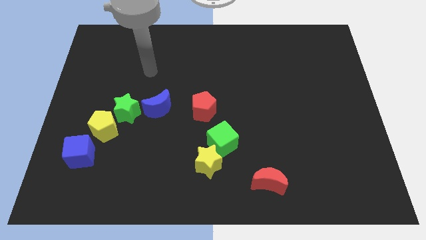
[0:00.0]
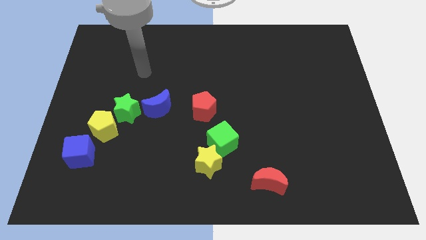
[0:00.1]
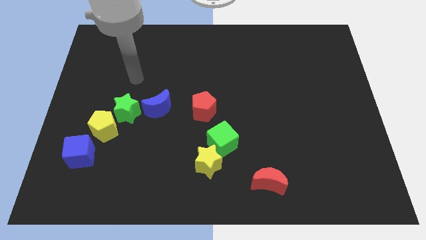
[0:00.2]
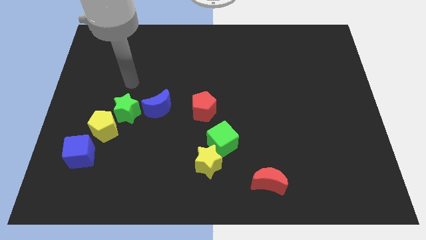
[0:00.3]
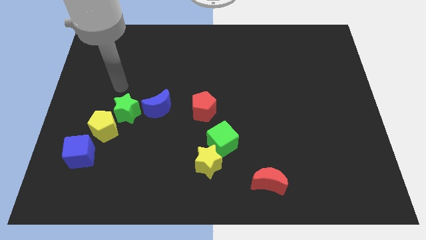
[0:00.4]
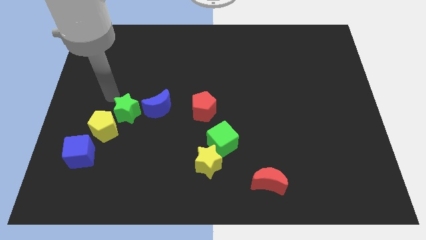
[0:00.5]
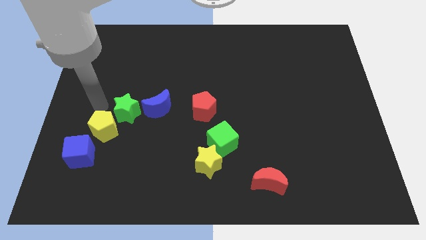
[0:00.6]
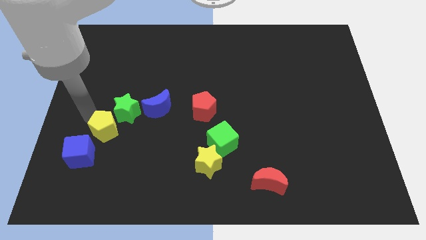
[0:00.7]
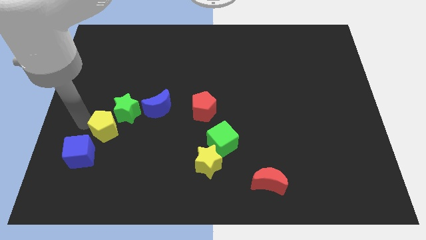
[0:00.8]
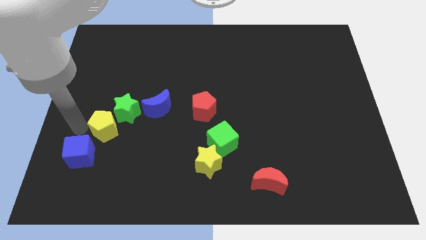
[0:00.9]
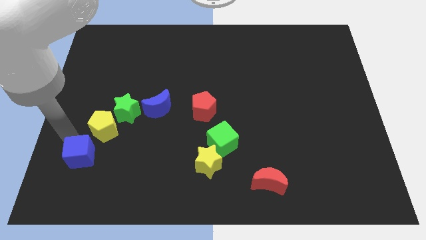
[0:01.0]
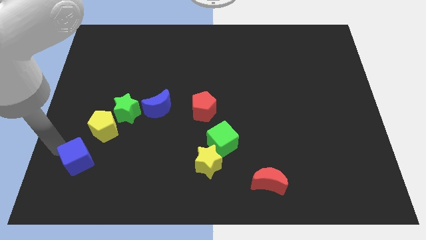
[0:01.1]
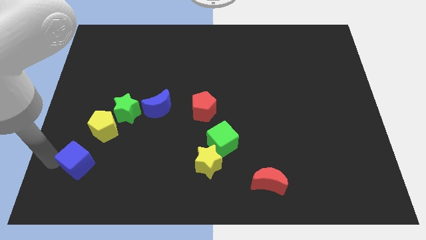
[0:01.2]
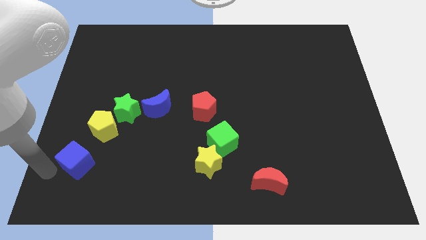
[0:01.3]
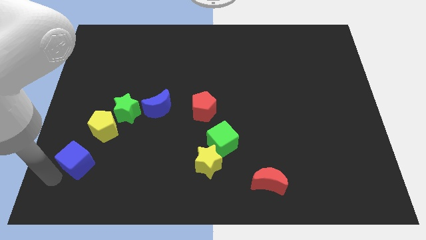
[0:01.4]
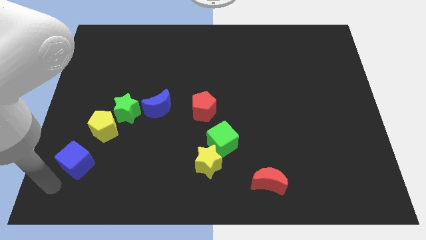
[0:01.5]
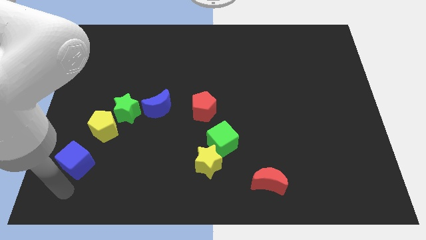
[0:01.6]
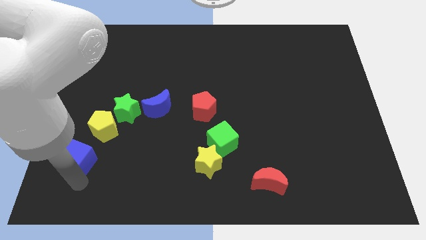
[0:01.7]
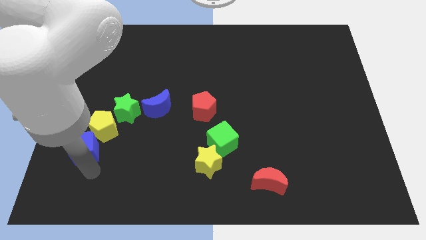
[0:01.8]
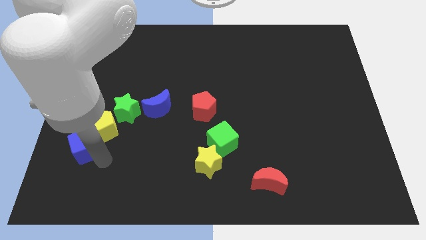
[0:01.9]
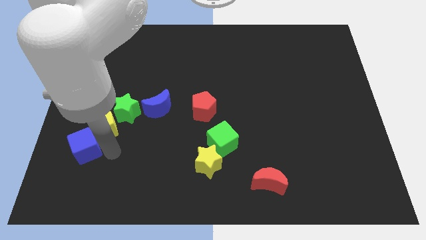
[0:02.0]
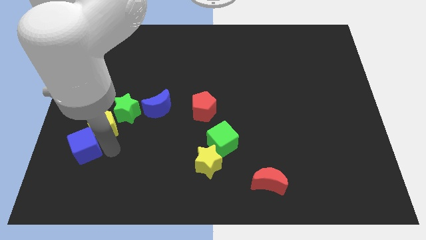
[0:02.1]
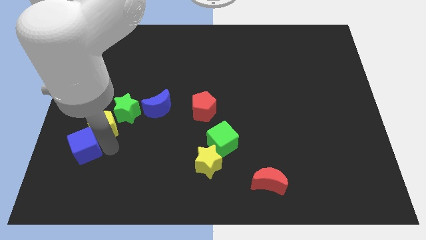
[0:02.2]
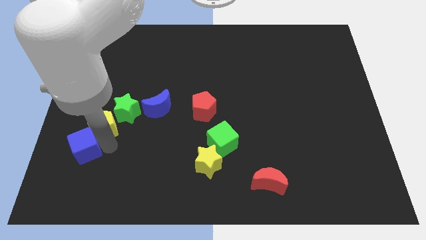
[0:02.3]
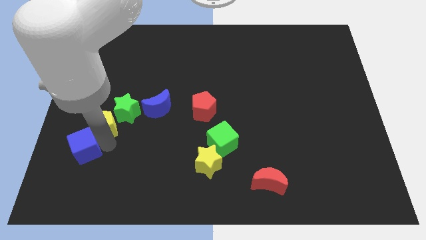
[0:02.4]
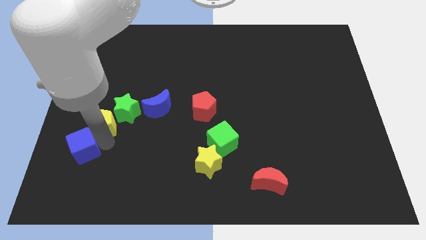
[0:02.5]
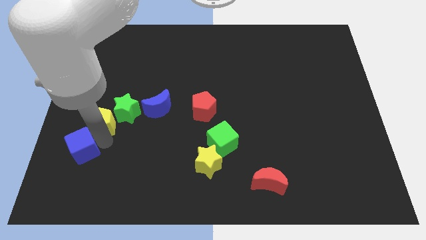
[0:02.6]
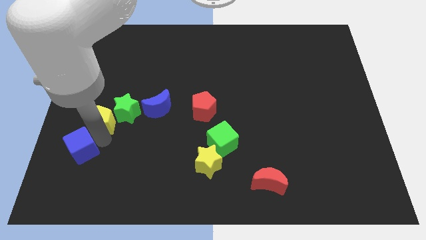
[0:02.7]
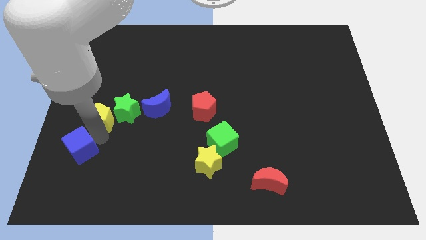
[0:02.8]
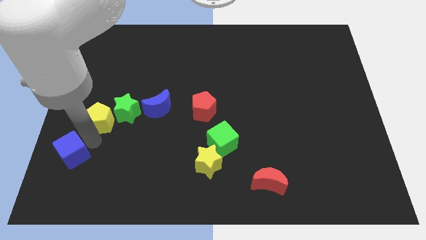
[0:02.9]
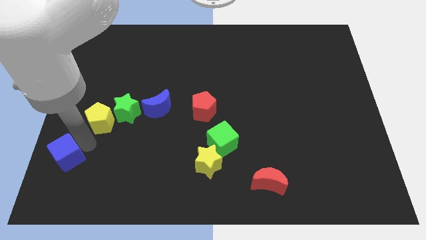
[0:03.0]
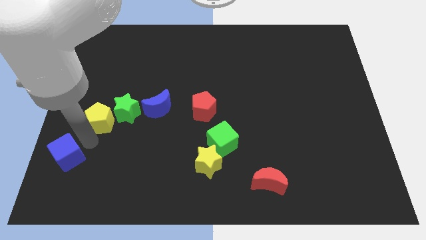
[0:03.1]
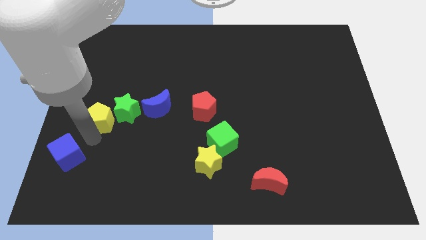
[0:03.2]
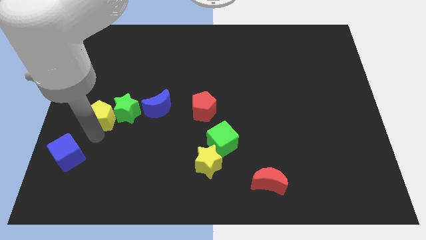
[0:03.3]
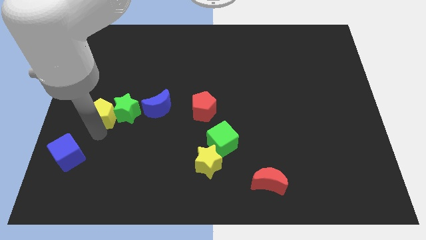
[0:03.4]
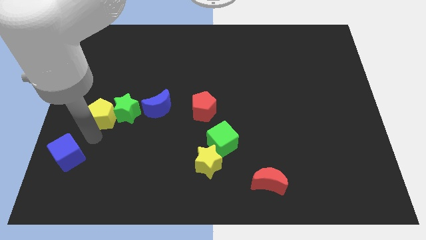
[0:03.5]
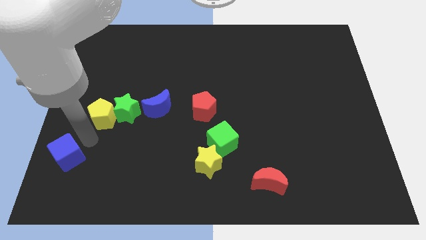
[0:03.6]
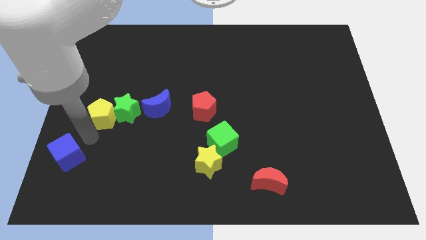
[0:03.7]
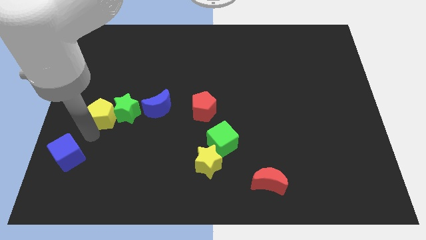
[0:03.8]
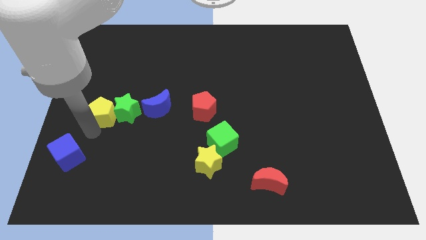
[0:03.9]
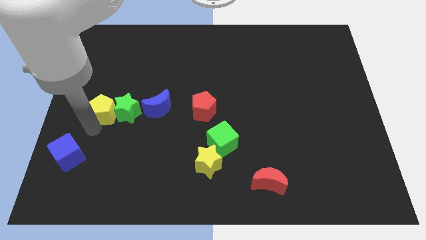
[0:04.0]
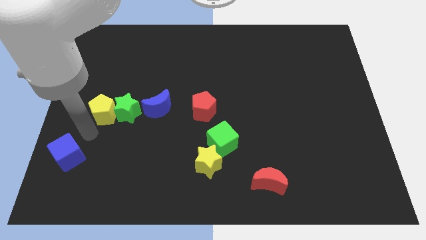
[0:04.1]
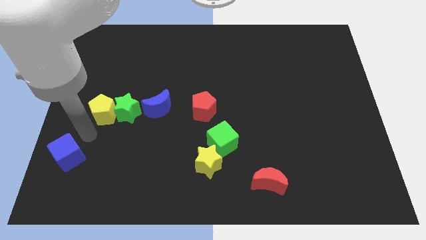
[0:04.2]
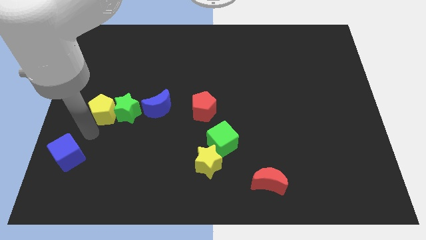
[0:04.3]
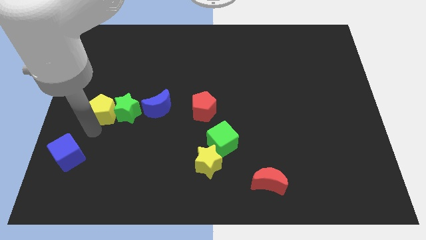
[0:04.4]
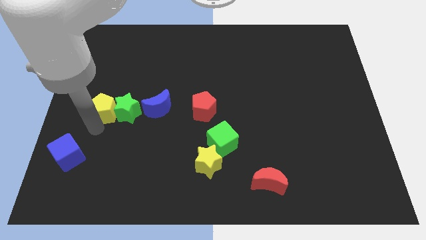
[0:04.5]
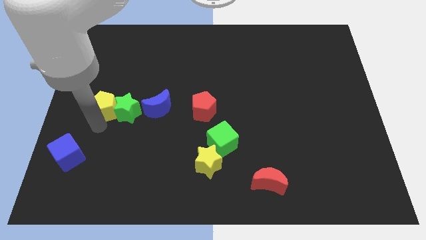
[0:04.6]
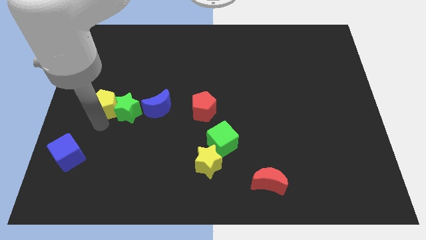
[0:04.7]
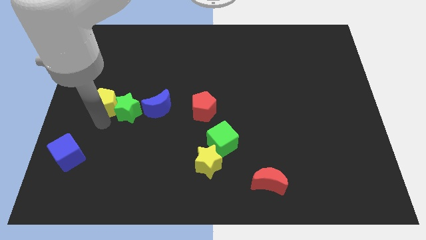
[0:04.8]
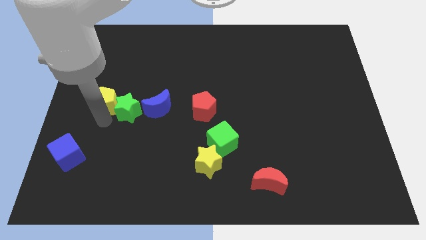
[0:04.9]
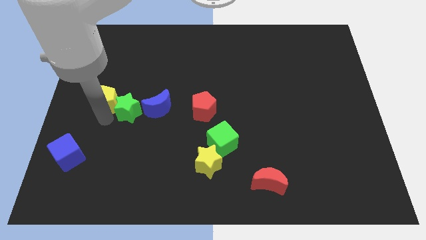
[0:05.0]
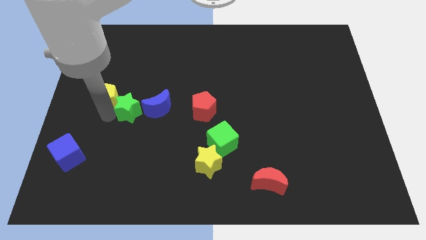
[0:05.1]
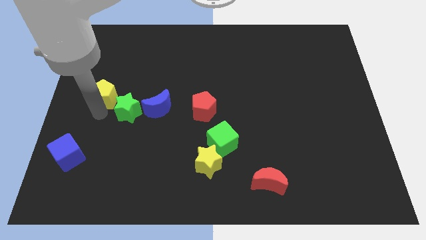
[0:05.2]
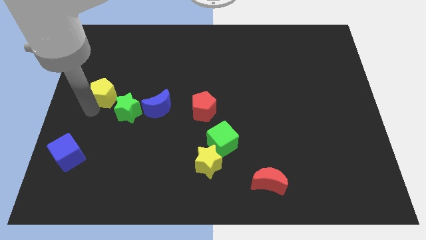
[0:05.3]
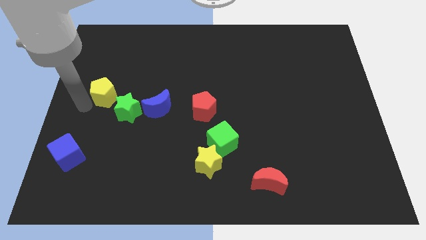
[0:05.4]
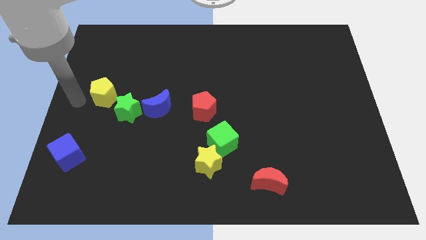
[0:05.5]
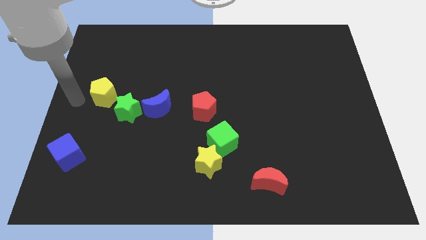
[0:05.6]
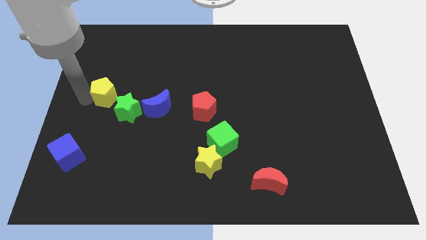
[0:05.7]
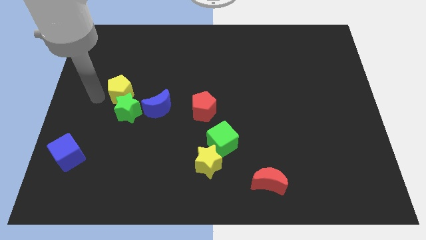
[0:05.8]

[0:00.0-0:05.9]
push the yellow pentagon upwards and then right somewhat

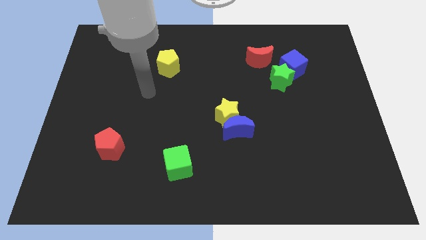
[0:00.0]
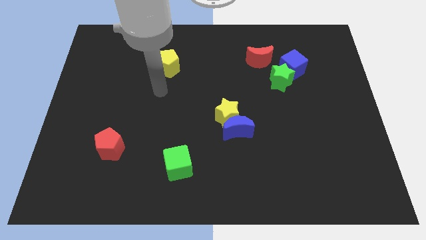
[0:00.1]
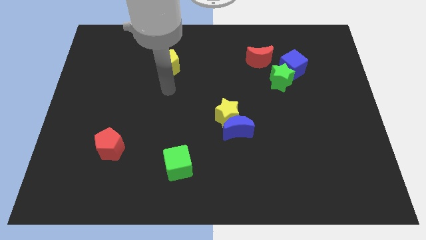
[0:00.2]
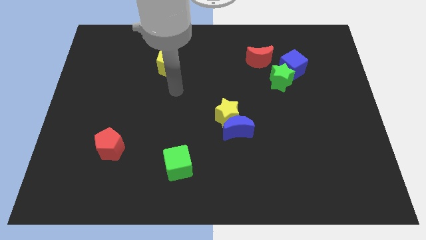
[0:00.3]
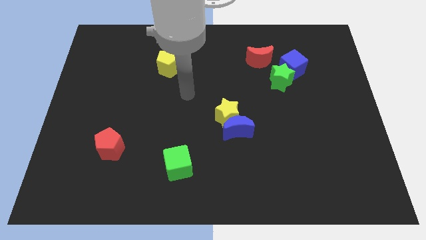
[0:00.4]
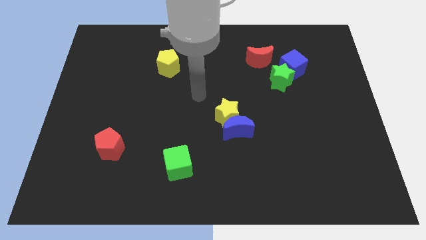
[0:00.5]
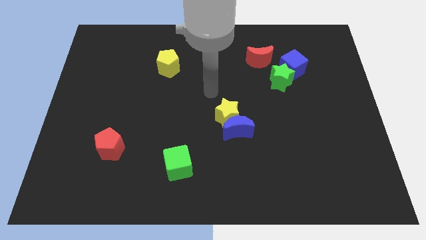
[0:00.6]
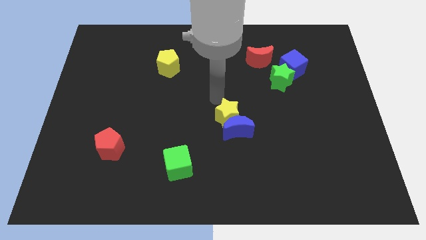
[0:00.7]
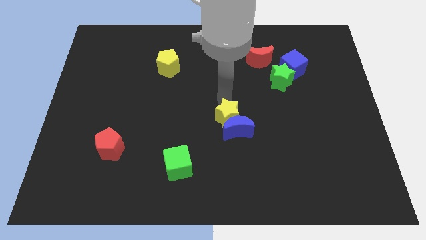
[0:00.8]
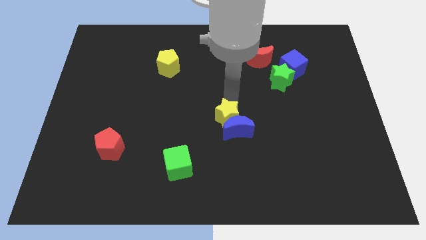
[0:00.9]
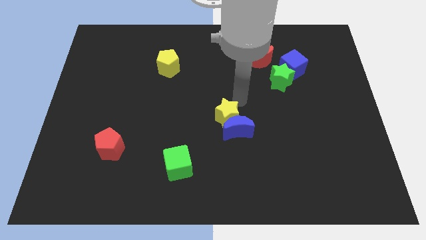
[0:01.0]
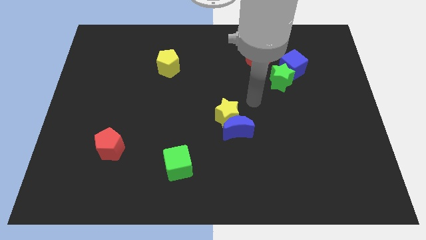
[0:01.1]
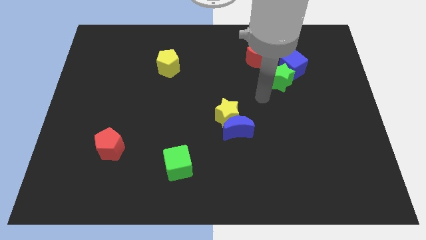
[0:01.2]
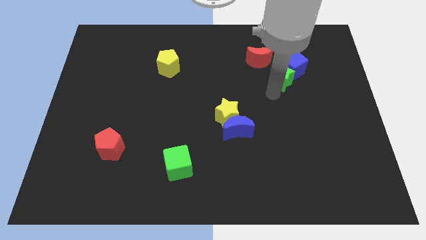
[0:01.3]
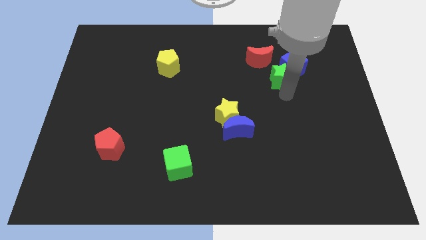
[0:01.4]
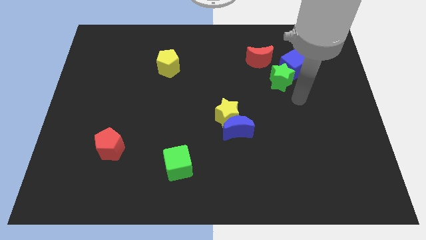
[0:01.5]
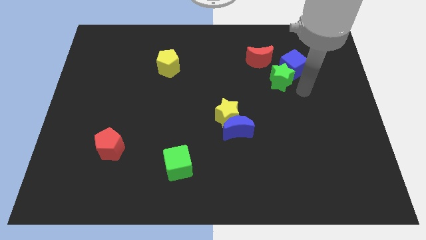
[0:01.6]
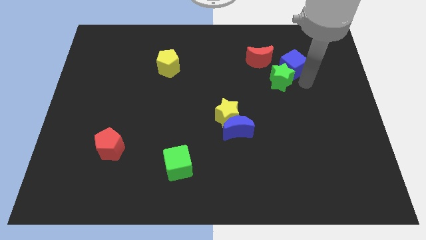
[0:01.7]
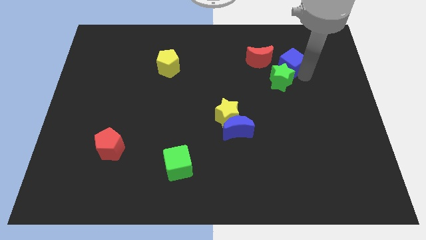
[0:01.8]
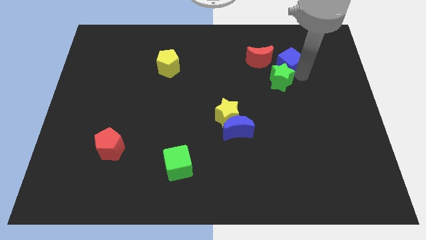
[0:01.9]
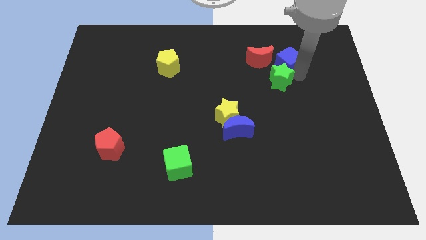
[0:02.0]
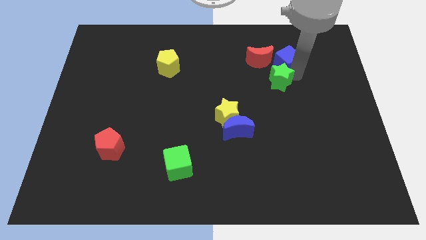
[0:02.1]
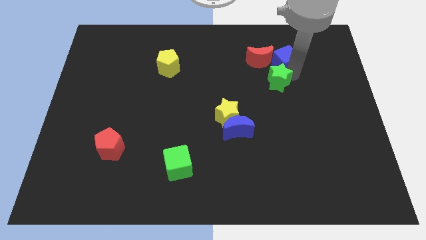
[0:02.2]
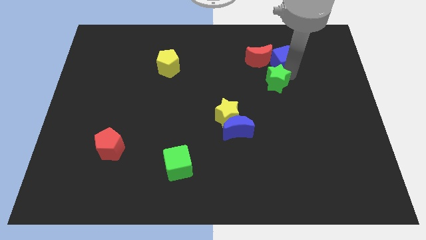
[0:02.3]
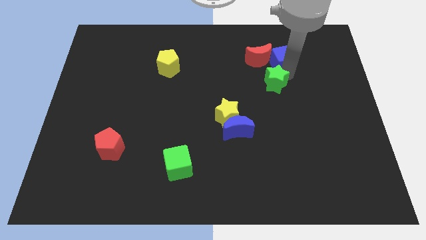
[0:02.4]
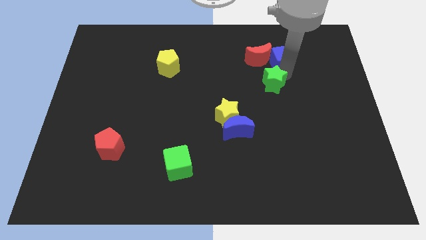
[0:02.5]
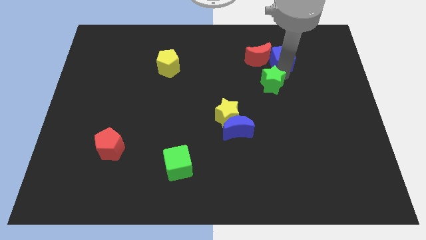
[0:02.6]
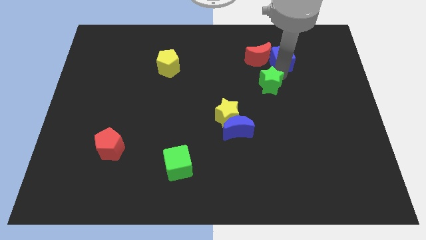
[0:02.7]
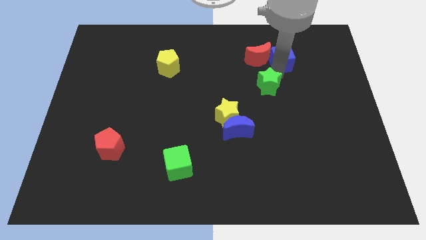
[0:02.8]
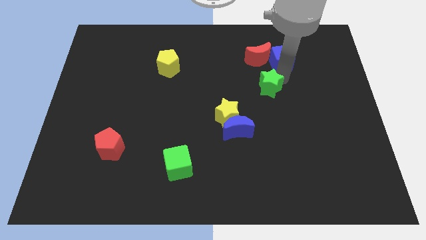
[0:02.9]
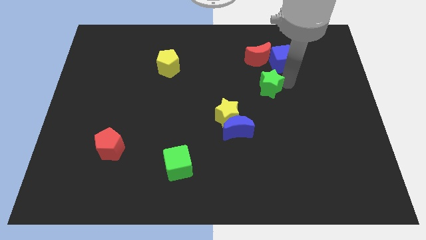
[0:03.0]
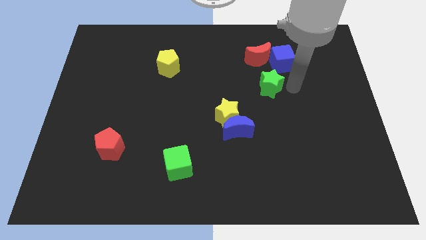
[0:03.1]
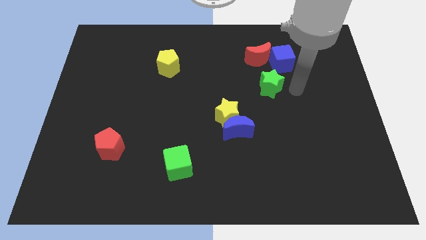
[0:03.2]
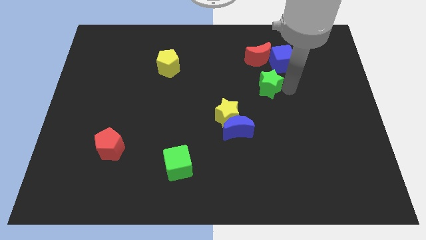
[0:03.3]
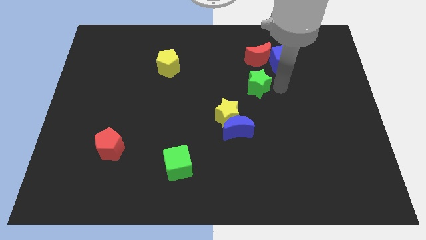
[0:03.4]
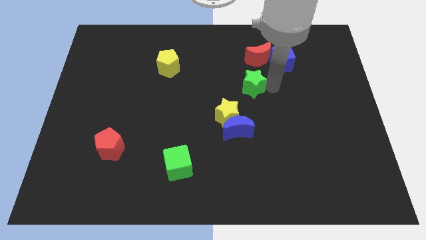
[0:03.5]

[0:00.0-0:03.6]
slightly move the green star left
